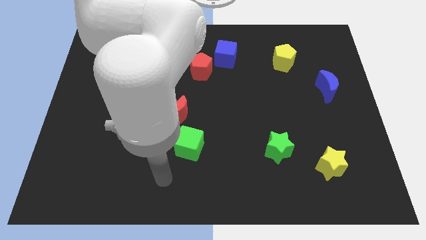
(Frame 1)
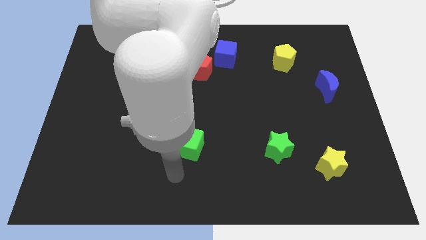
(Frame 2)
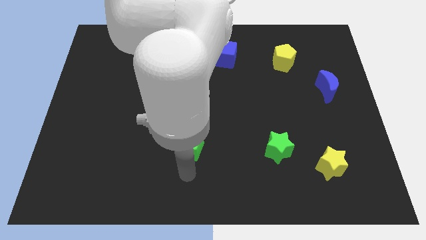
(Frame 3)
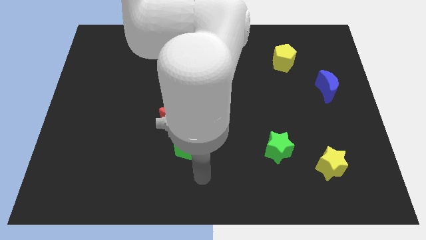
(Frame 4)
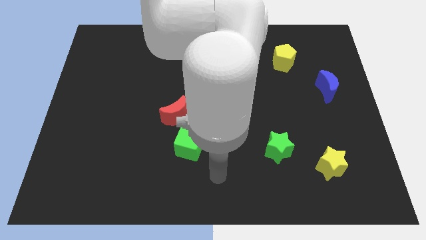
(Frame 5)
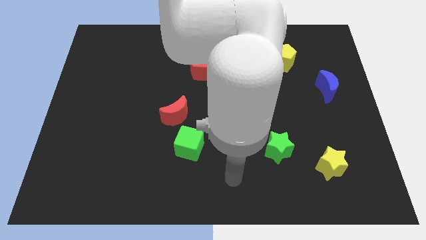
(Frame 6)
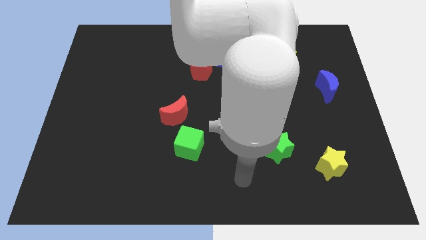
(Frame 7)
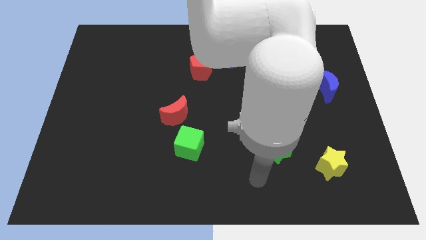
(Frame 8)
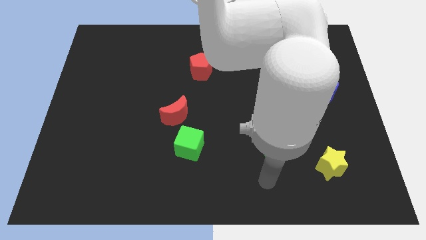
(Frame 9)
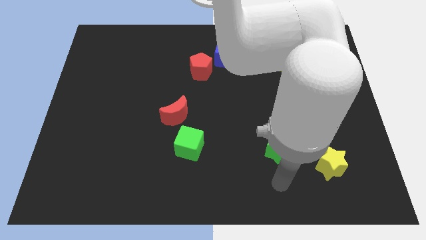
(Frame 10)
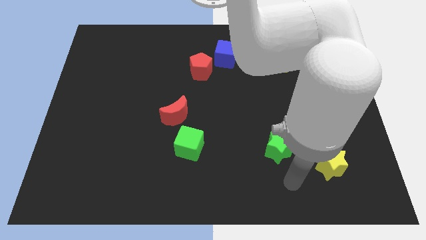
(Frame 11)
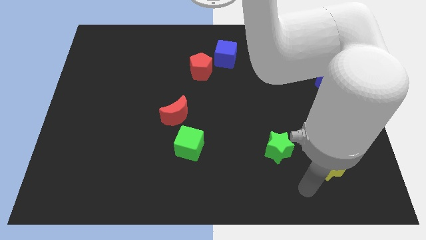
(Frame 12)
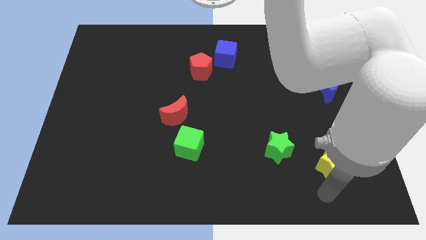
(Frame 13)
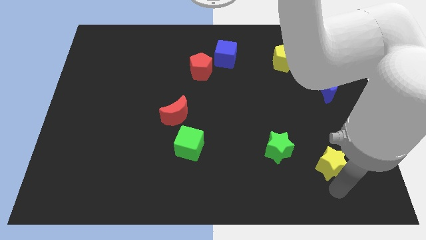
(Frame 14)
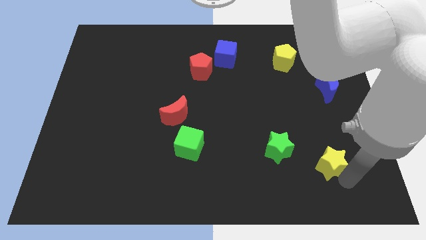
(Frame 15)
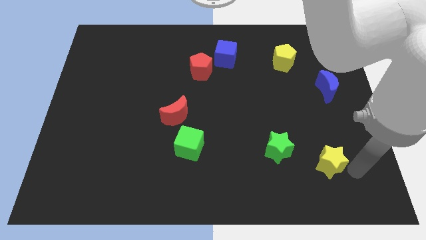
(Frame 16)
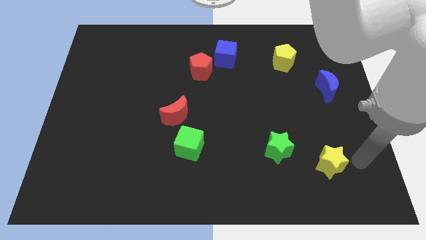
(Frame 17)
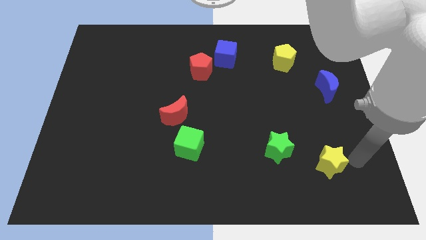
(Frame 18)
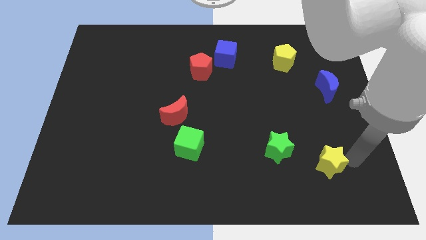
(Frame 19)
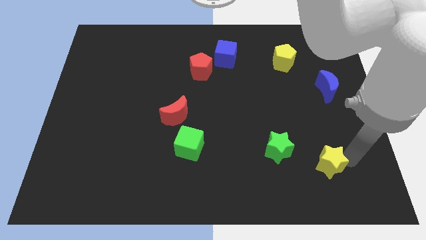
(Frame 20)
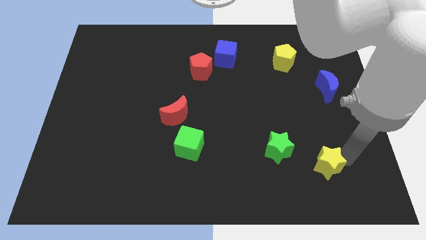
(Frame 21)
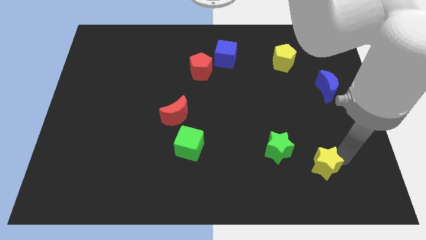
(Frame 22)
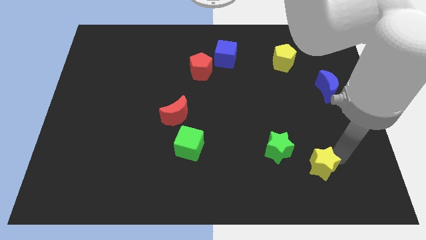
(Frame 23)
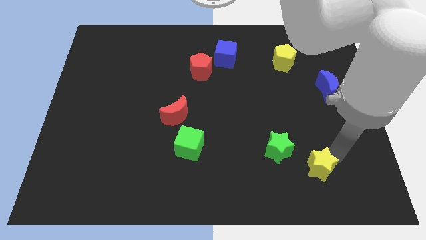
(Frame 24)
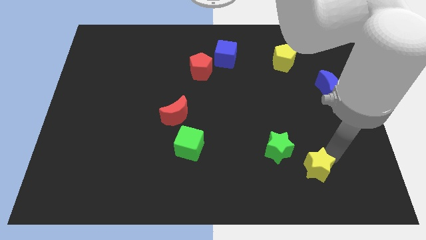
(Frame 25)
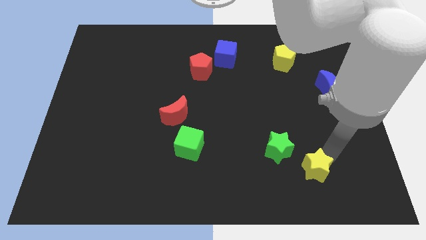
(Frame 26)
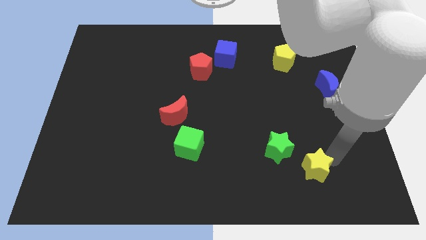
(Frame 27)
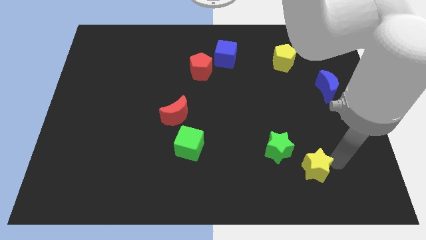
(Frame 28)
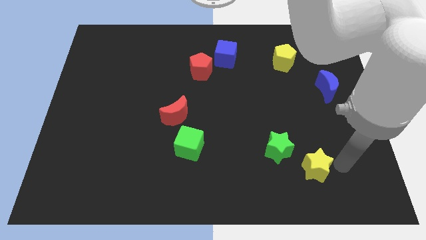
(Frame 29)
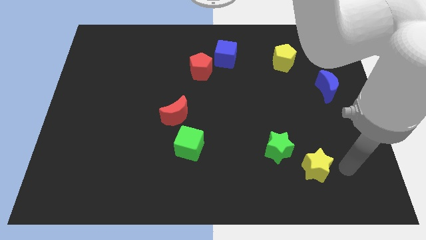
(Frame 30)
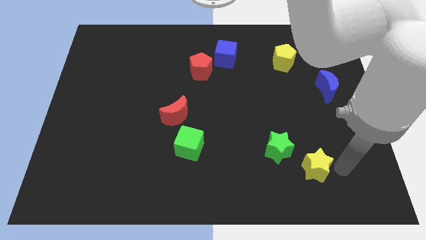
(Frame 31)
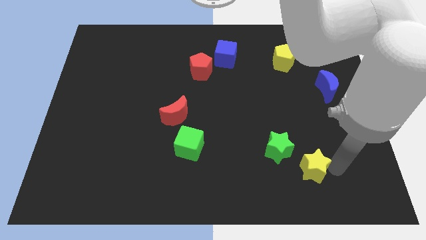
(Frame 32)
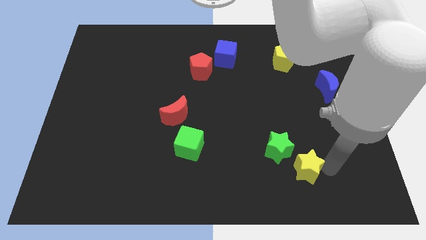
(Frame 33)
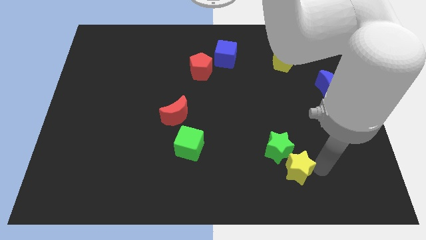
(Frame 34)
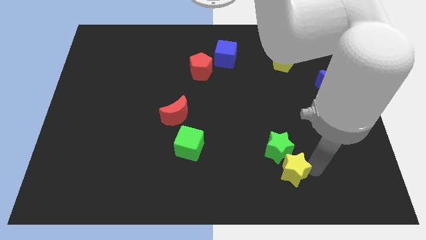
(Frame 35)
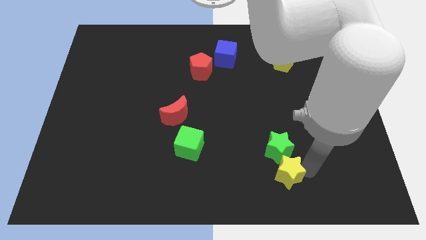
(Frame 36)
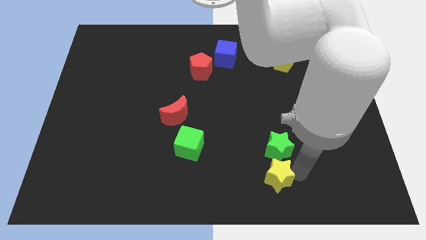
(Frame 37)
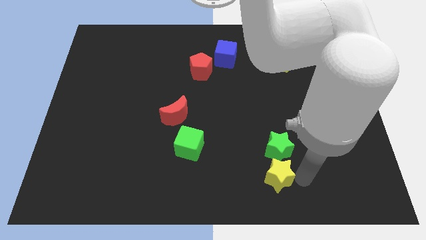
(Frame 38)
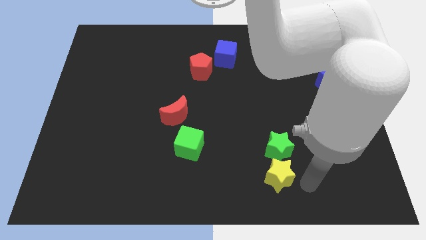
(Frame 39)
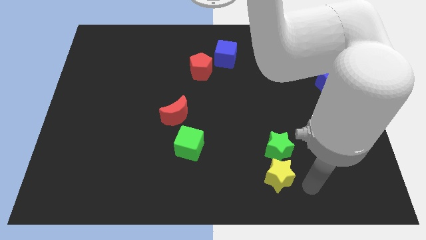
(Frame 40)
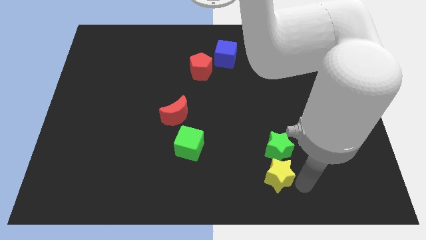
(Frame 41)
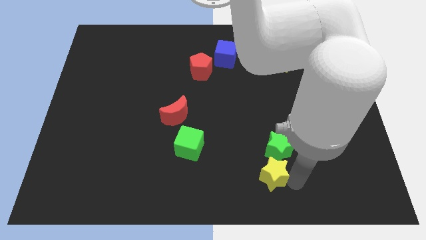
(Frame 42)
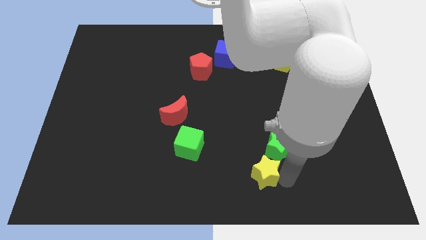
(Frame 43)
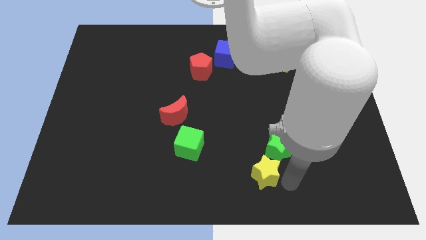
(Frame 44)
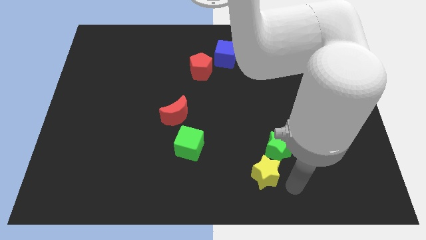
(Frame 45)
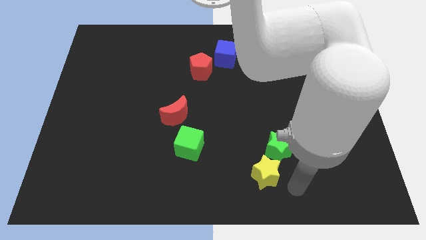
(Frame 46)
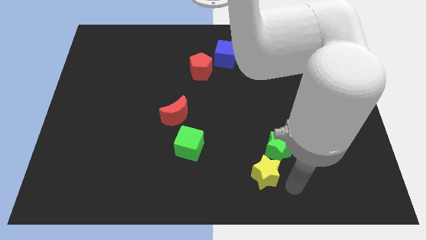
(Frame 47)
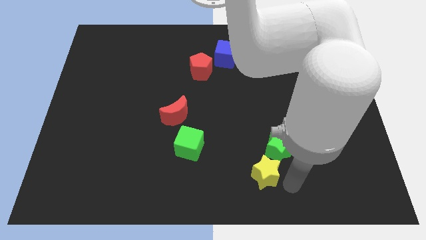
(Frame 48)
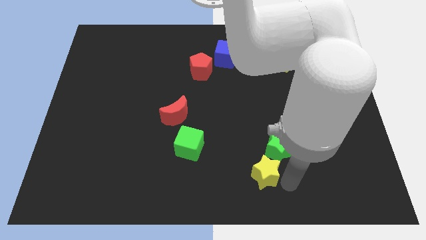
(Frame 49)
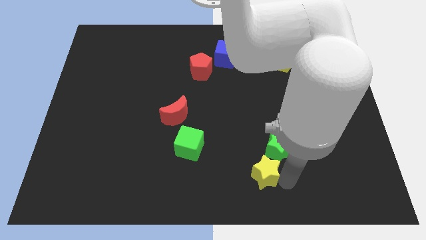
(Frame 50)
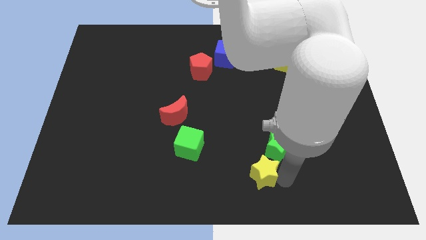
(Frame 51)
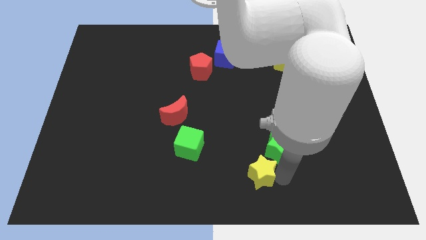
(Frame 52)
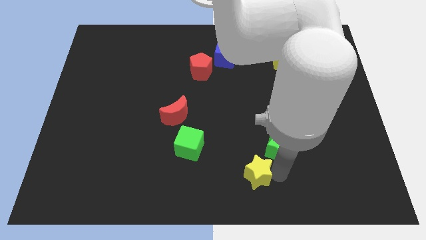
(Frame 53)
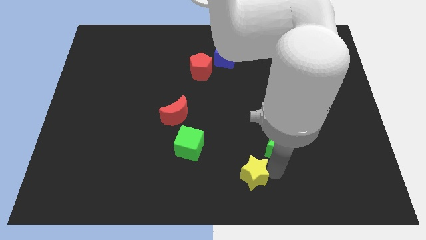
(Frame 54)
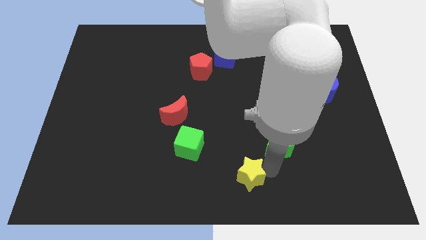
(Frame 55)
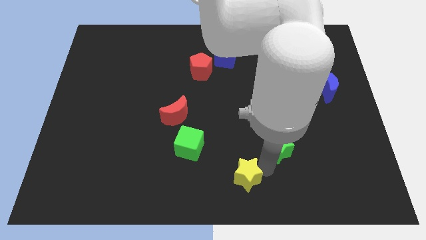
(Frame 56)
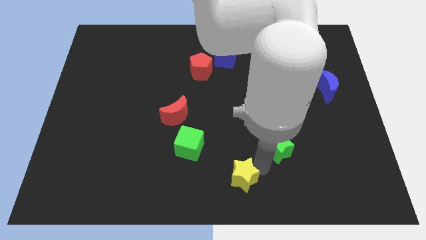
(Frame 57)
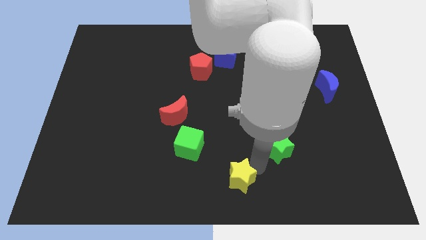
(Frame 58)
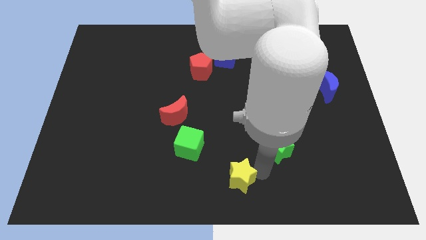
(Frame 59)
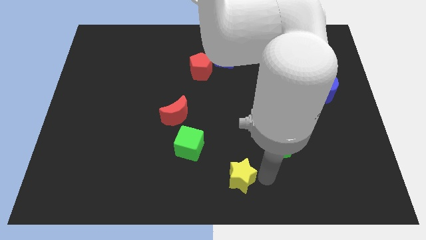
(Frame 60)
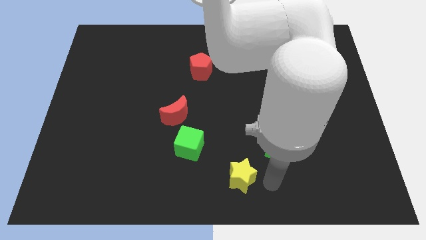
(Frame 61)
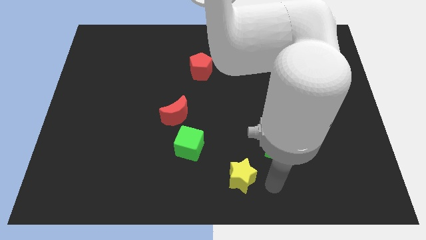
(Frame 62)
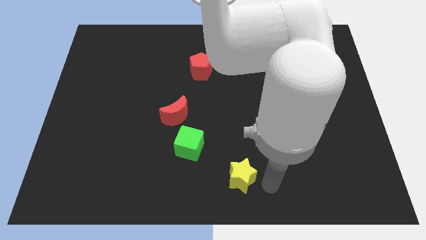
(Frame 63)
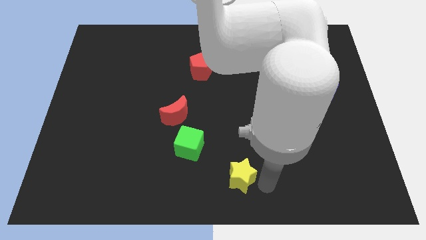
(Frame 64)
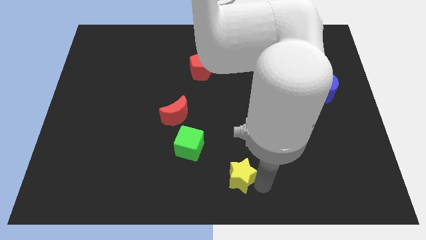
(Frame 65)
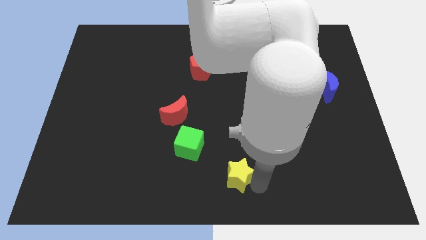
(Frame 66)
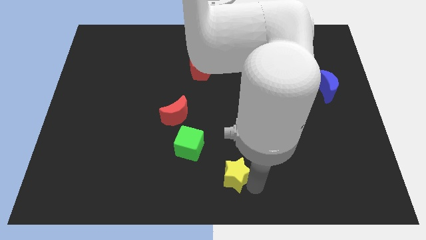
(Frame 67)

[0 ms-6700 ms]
slide the yellow star left

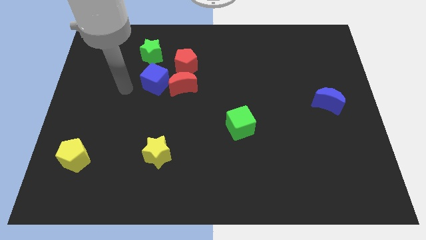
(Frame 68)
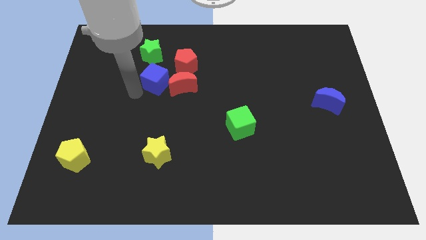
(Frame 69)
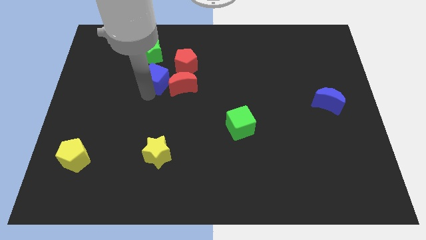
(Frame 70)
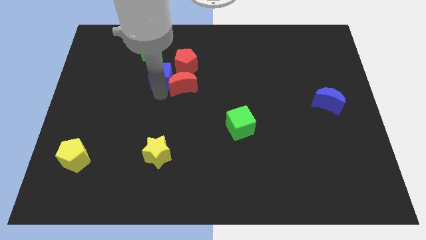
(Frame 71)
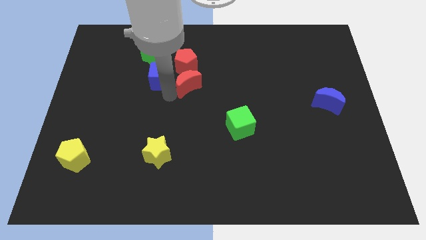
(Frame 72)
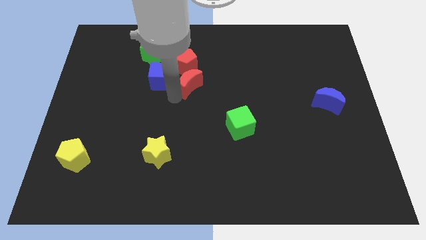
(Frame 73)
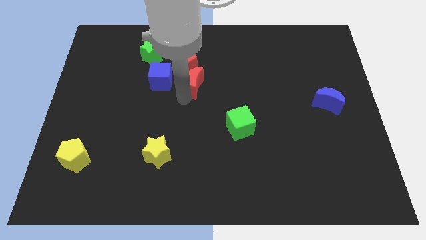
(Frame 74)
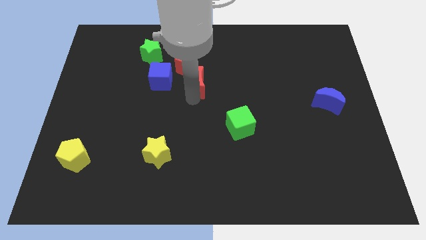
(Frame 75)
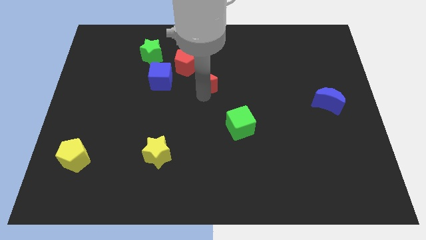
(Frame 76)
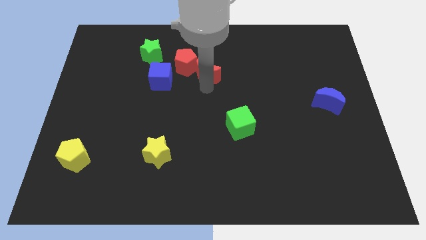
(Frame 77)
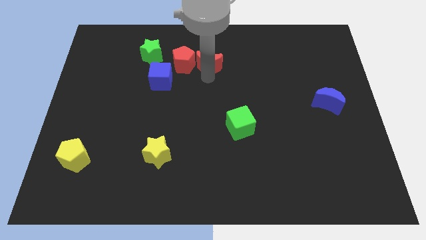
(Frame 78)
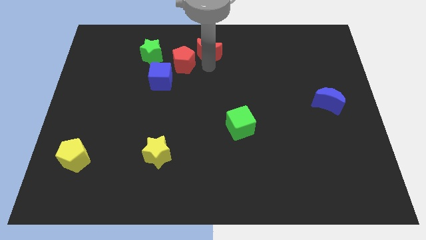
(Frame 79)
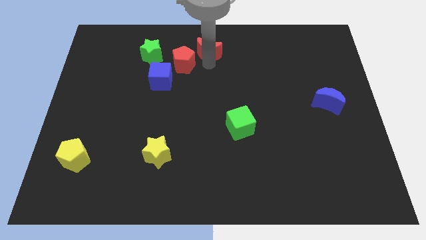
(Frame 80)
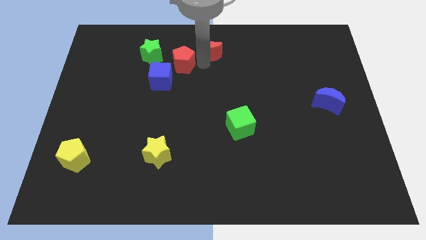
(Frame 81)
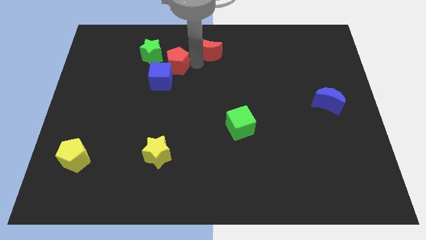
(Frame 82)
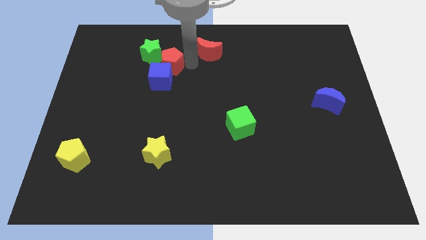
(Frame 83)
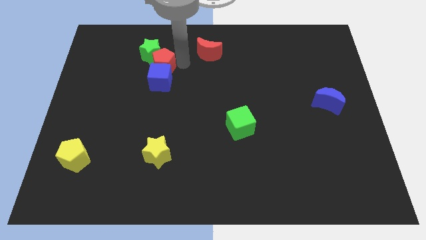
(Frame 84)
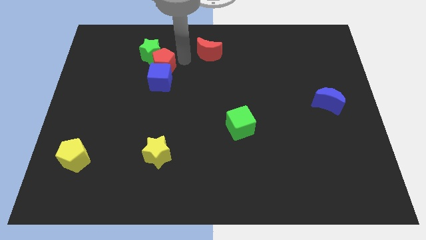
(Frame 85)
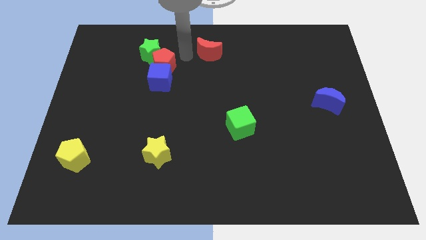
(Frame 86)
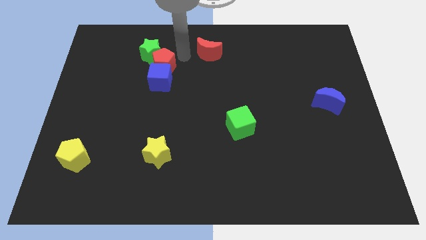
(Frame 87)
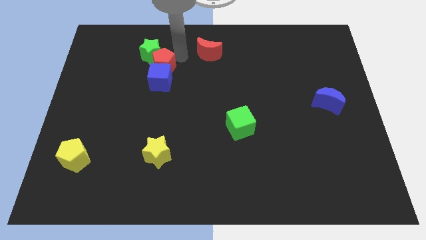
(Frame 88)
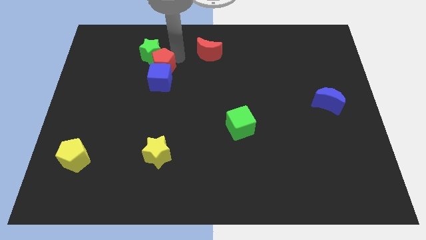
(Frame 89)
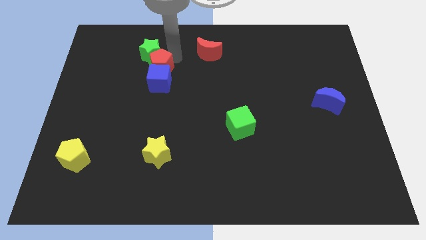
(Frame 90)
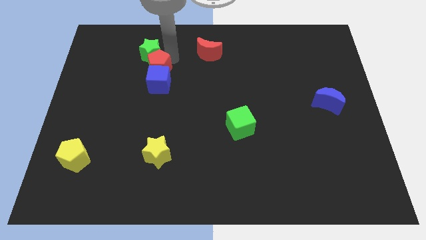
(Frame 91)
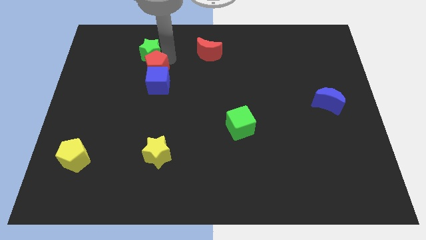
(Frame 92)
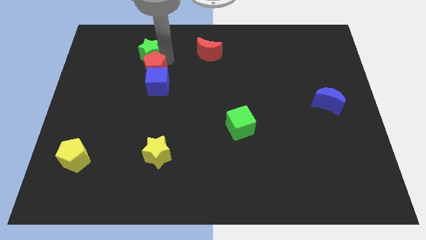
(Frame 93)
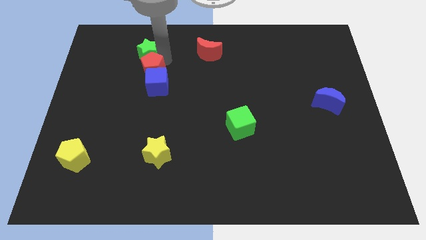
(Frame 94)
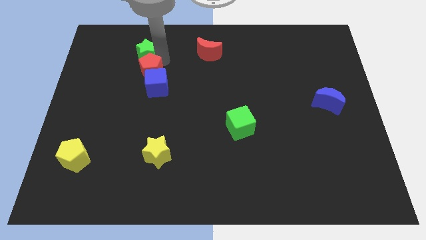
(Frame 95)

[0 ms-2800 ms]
slightly slide the red pentagon downwards and left
